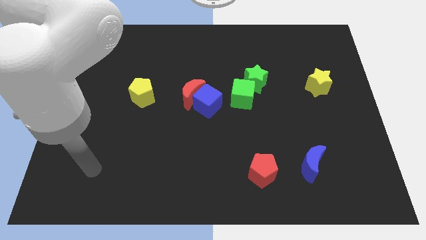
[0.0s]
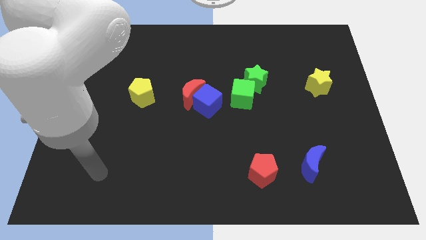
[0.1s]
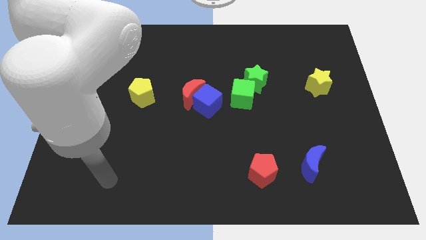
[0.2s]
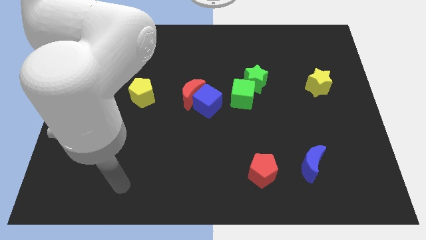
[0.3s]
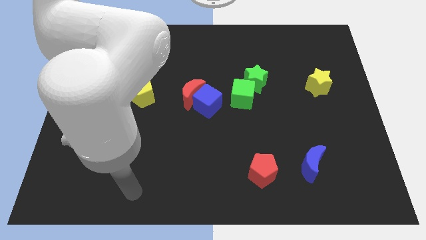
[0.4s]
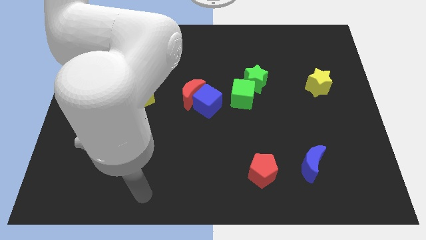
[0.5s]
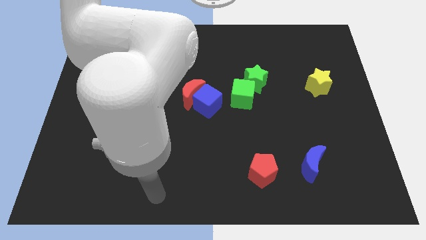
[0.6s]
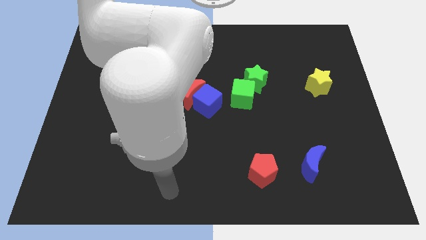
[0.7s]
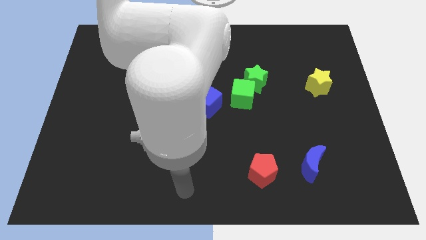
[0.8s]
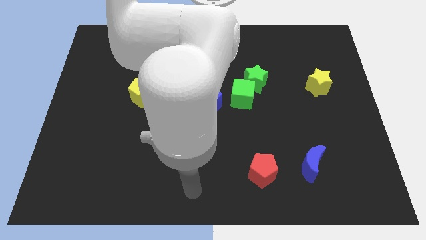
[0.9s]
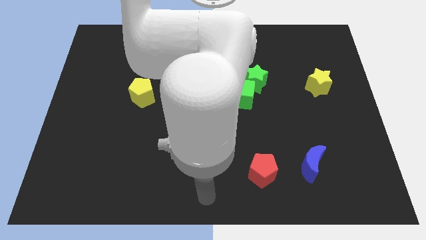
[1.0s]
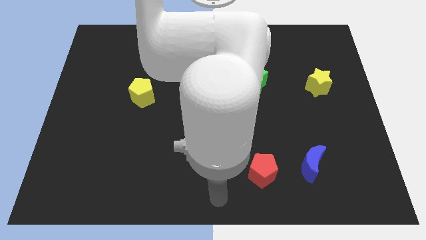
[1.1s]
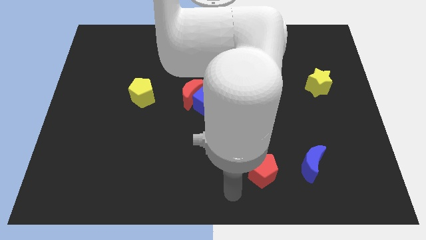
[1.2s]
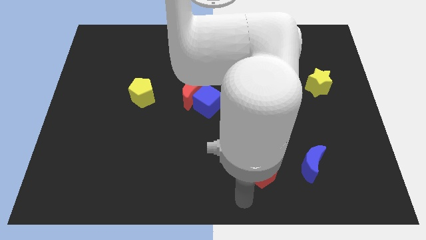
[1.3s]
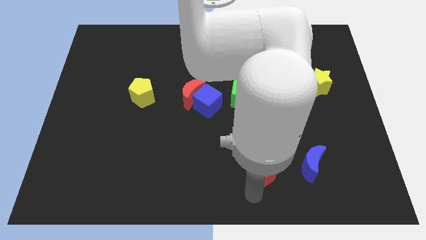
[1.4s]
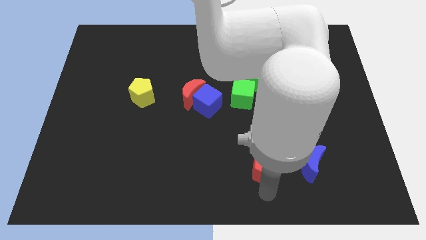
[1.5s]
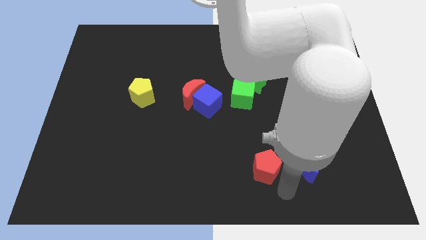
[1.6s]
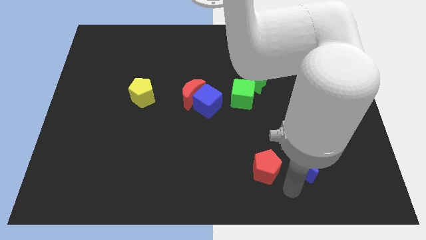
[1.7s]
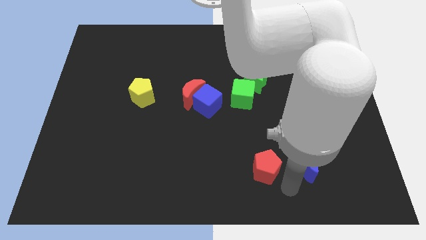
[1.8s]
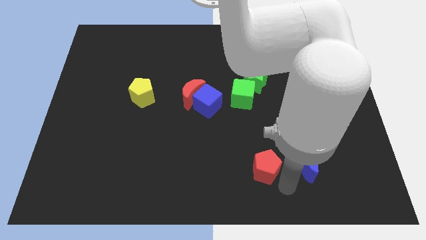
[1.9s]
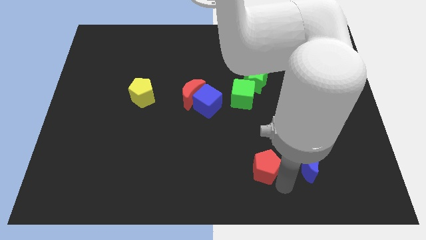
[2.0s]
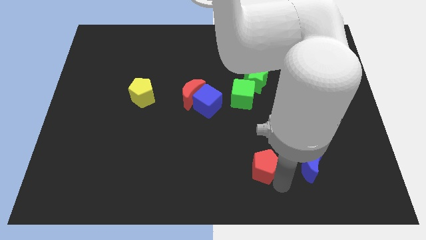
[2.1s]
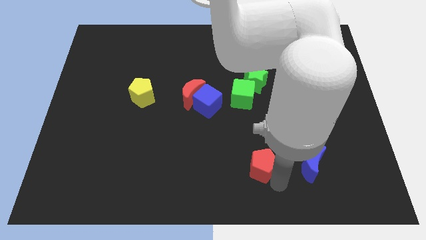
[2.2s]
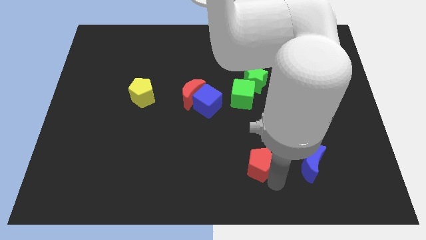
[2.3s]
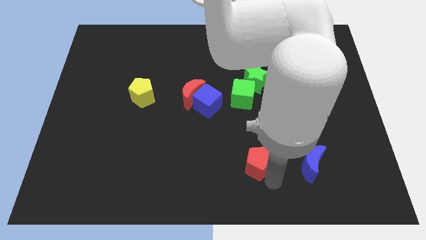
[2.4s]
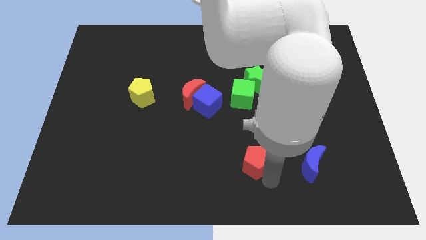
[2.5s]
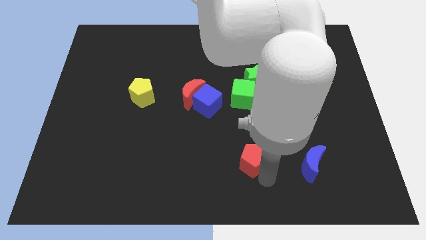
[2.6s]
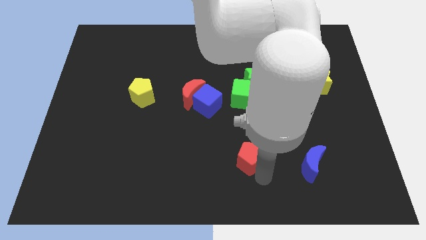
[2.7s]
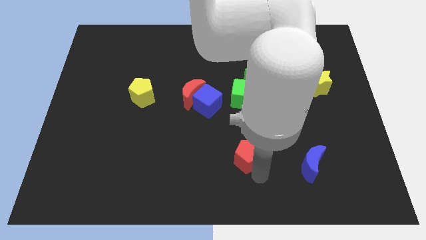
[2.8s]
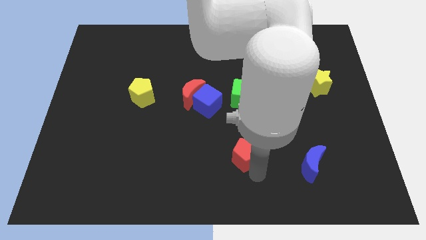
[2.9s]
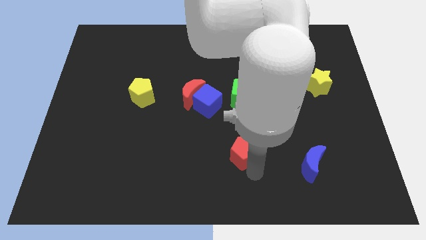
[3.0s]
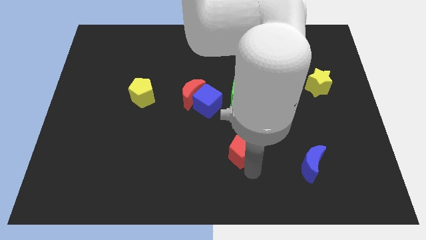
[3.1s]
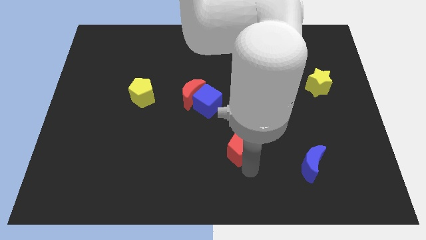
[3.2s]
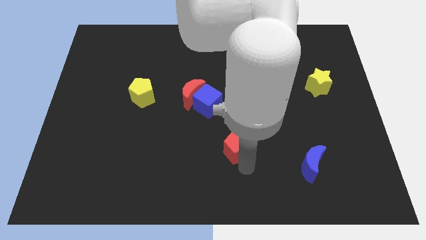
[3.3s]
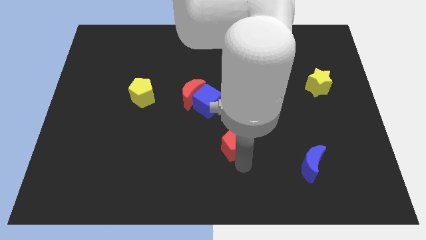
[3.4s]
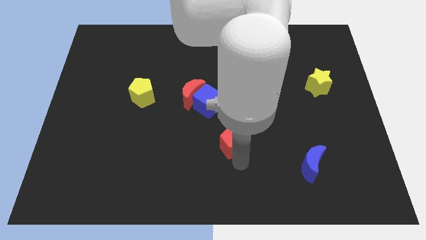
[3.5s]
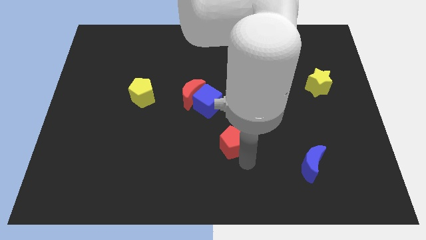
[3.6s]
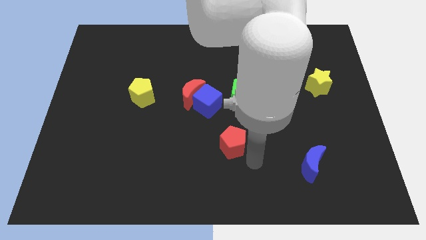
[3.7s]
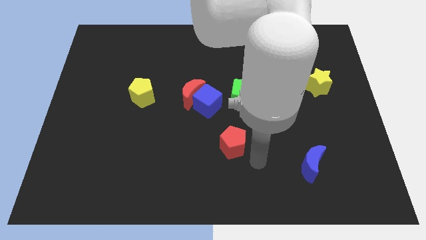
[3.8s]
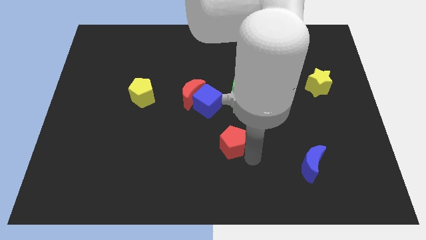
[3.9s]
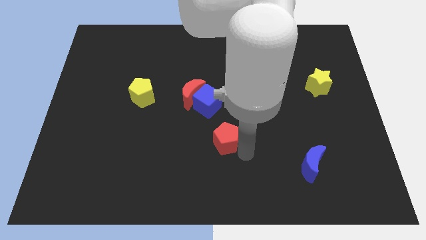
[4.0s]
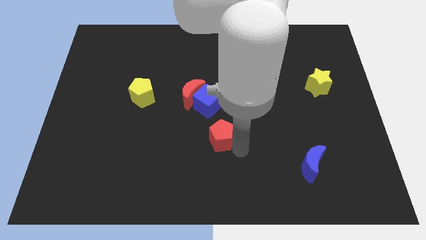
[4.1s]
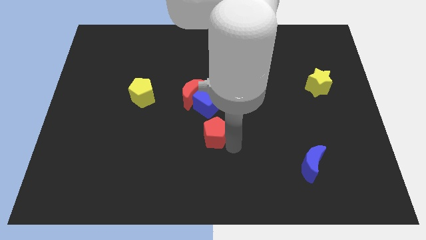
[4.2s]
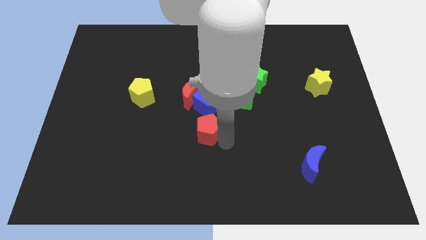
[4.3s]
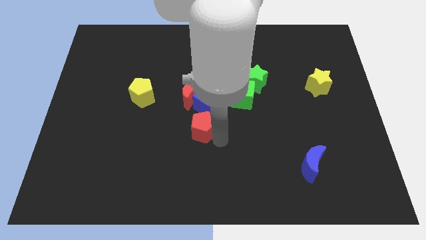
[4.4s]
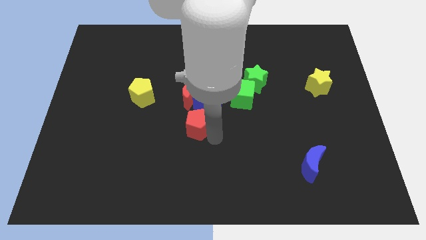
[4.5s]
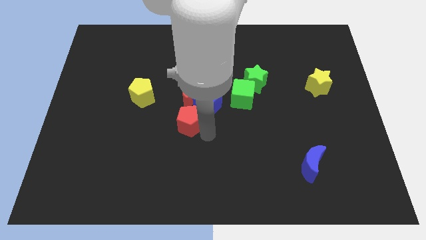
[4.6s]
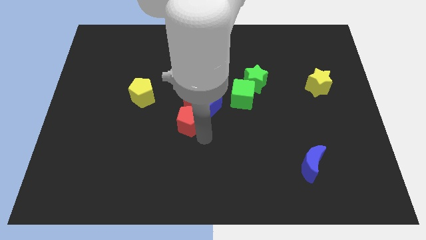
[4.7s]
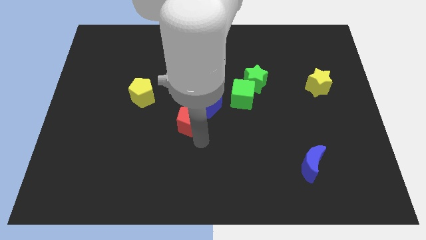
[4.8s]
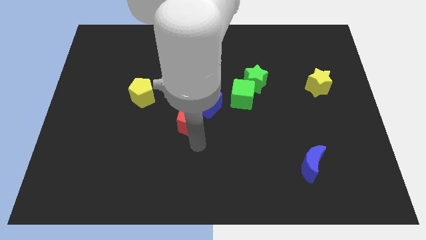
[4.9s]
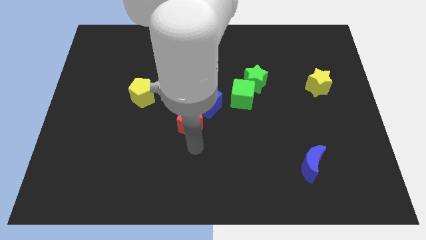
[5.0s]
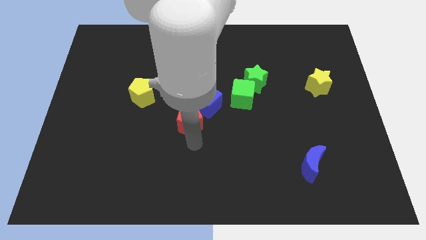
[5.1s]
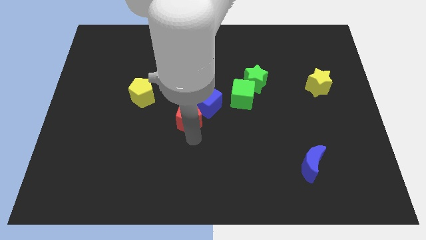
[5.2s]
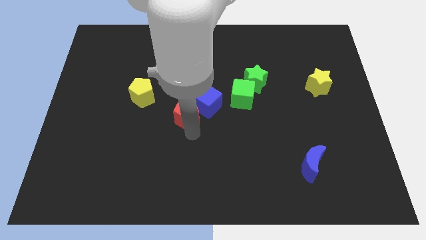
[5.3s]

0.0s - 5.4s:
push the red pentagon close to the red moon

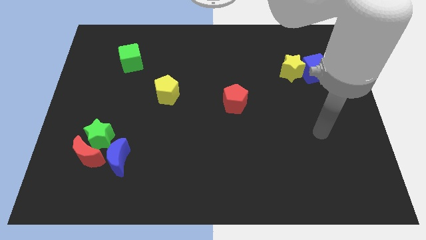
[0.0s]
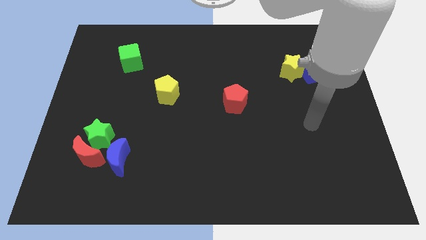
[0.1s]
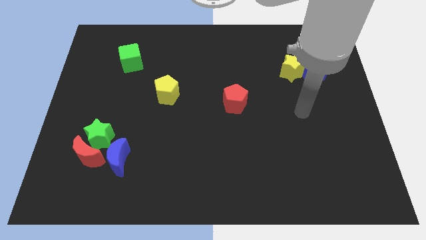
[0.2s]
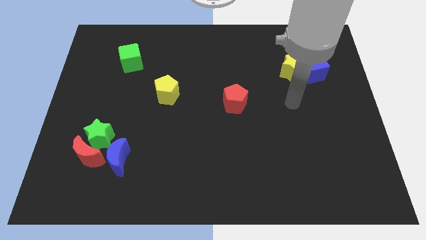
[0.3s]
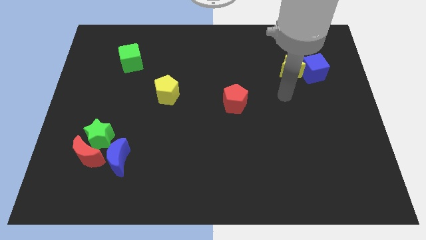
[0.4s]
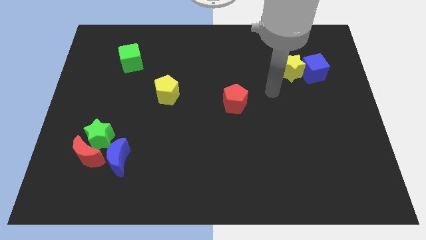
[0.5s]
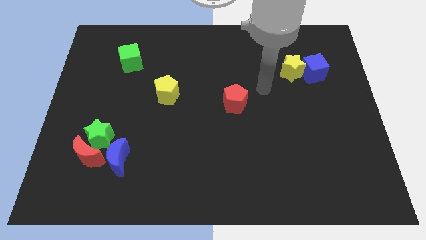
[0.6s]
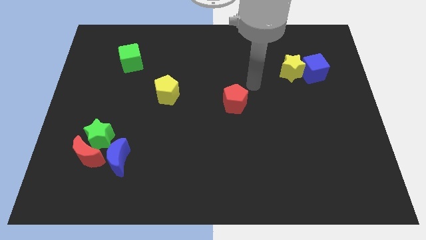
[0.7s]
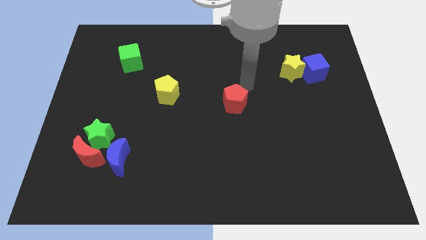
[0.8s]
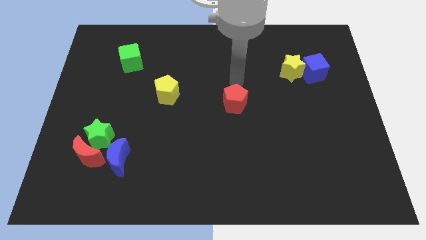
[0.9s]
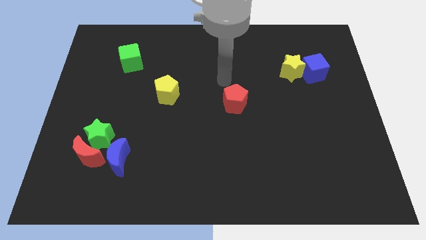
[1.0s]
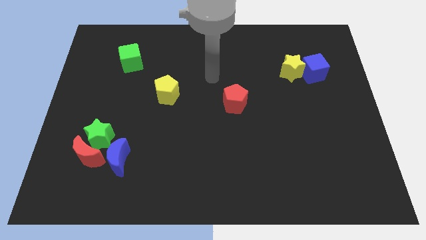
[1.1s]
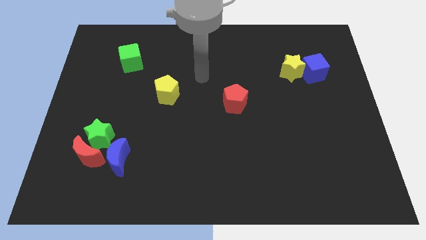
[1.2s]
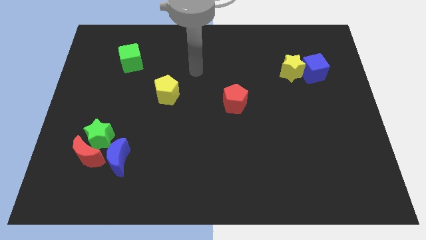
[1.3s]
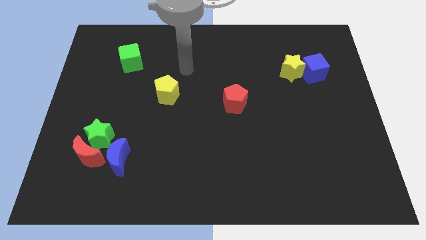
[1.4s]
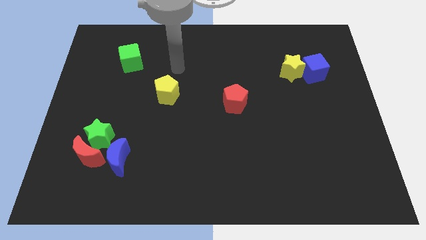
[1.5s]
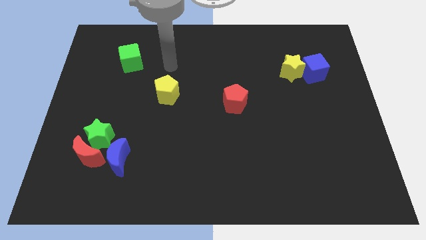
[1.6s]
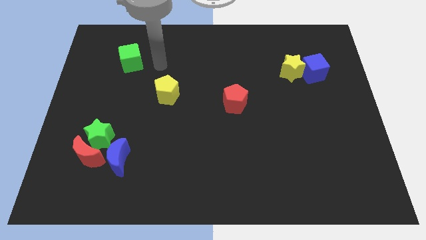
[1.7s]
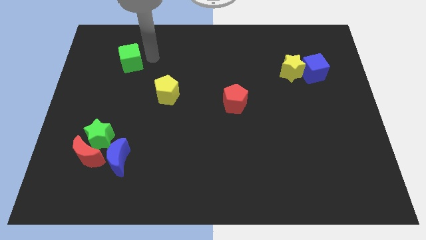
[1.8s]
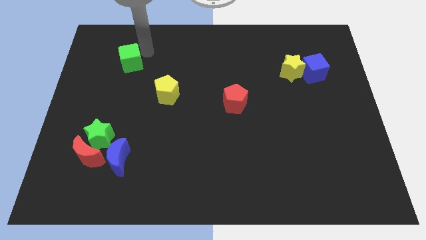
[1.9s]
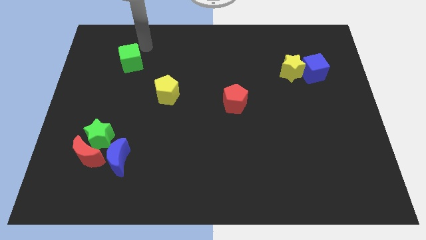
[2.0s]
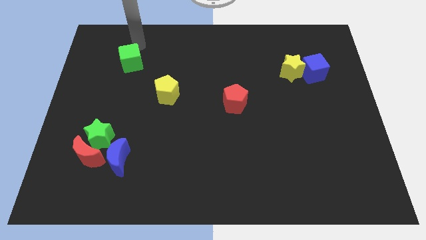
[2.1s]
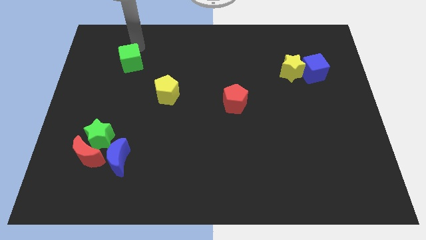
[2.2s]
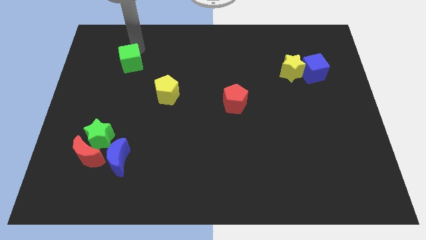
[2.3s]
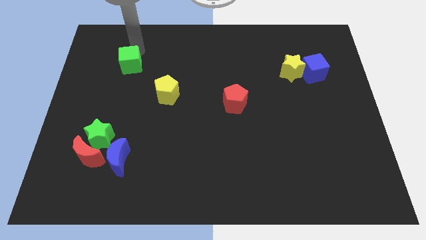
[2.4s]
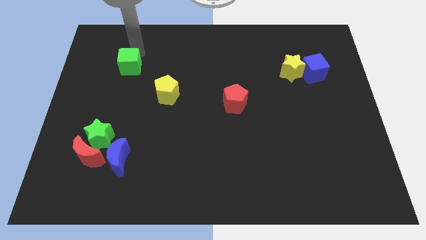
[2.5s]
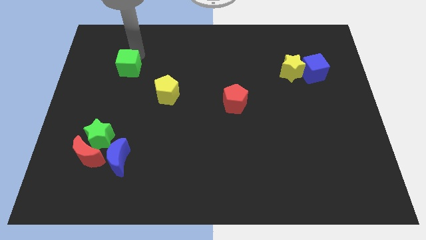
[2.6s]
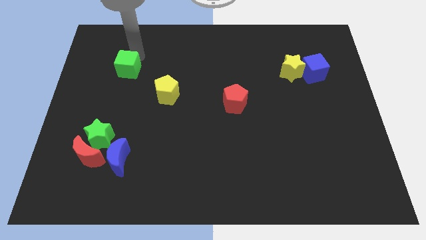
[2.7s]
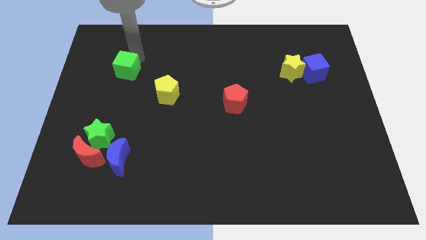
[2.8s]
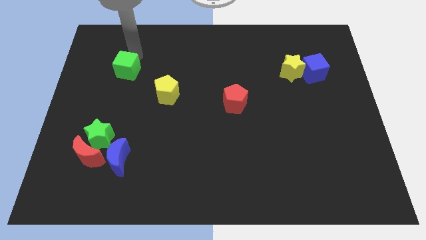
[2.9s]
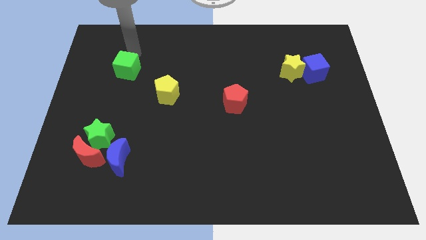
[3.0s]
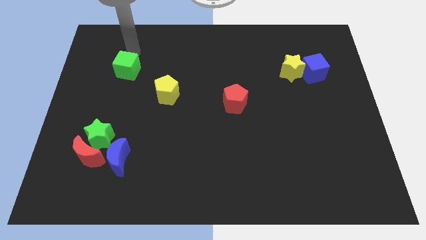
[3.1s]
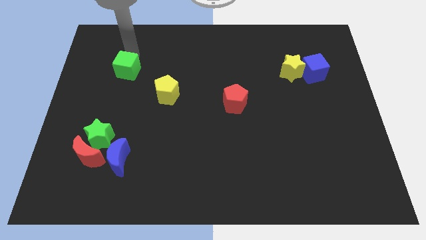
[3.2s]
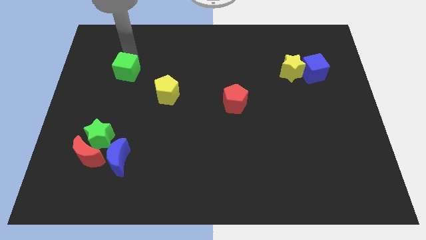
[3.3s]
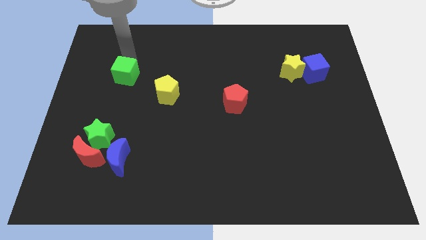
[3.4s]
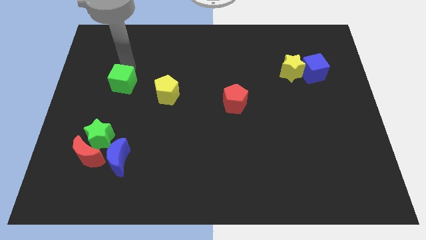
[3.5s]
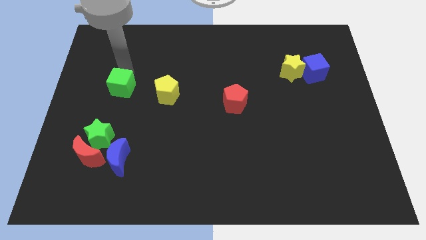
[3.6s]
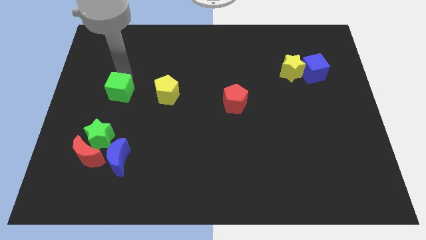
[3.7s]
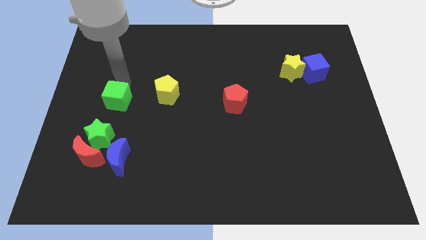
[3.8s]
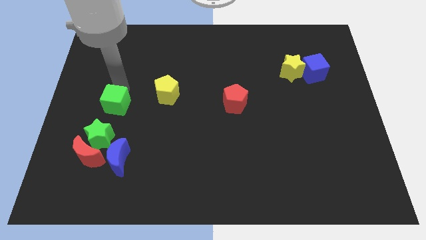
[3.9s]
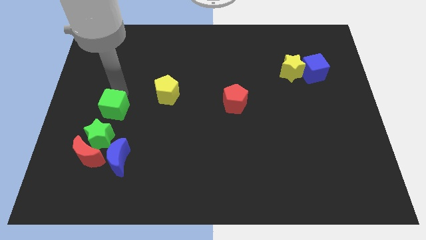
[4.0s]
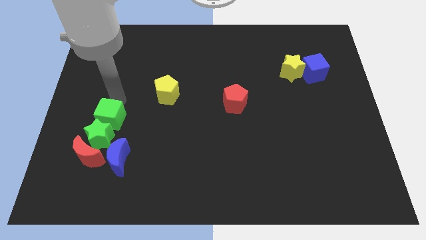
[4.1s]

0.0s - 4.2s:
push the green cube close to the green star
